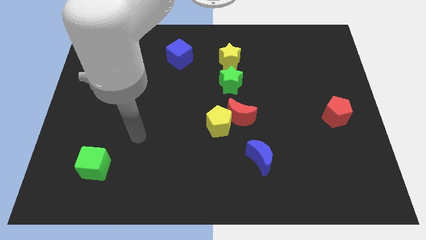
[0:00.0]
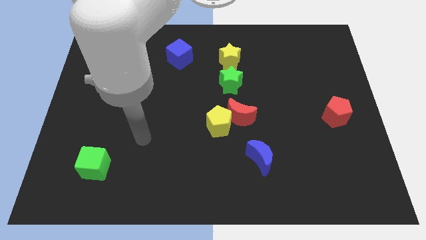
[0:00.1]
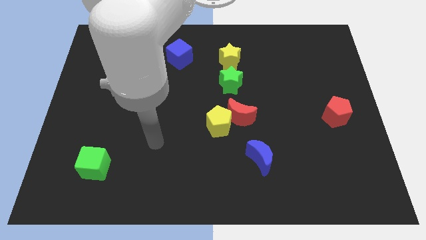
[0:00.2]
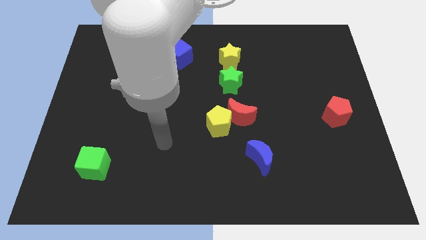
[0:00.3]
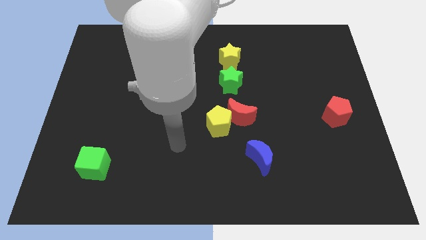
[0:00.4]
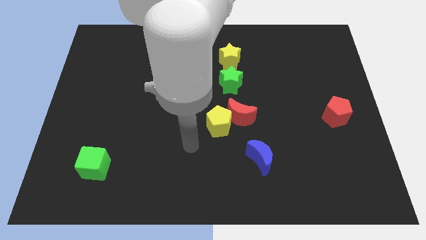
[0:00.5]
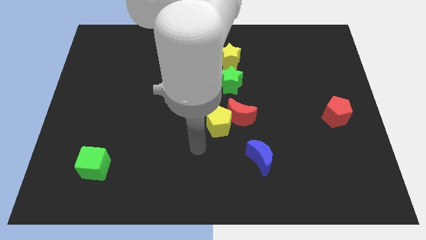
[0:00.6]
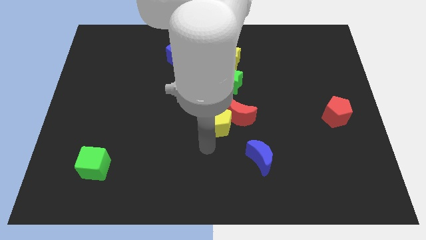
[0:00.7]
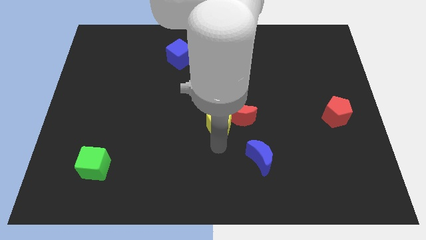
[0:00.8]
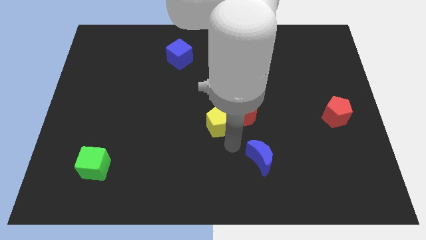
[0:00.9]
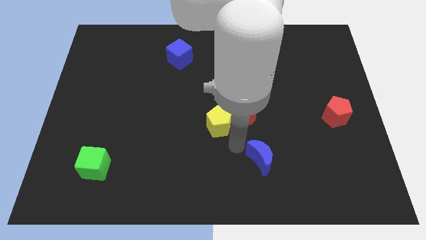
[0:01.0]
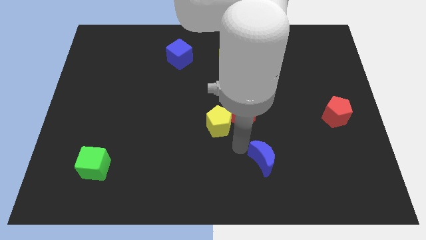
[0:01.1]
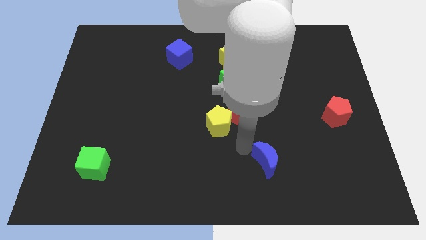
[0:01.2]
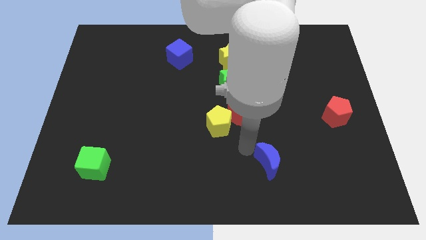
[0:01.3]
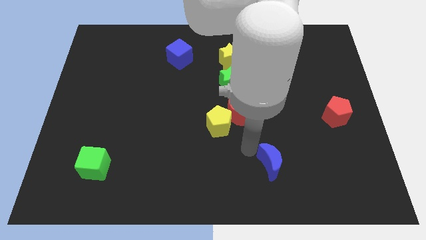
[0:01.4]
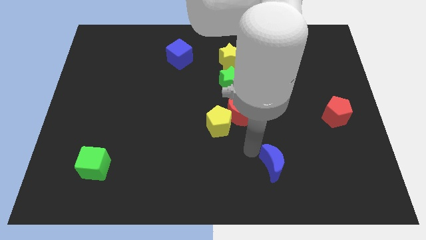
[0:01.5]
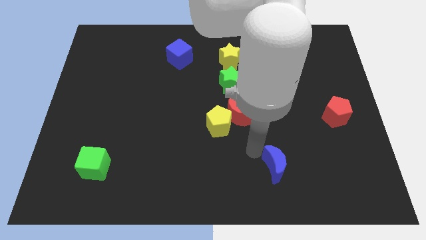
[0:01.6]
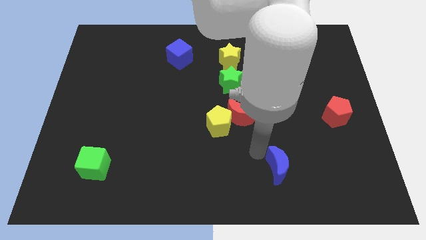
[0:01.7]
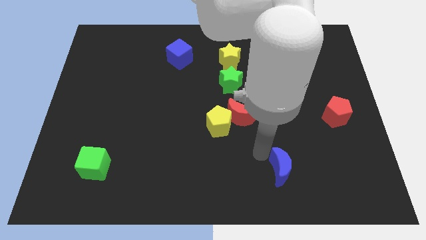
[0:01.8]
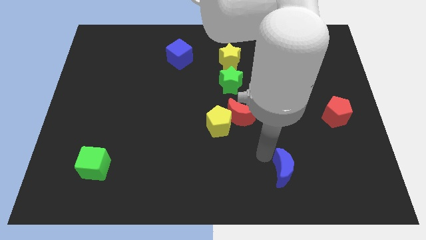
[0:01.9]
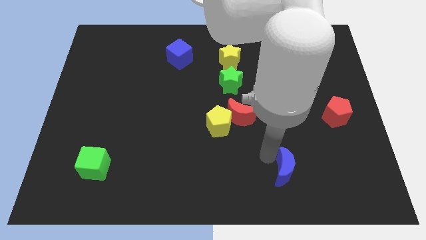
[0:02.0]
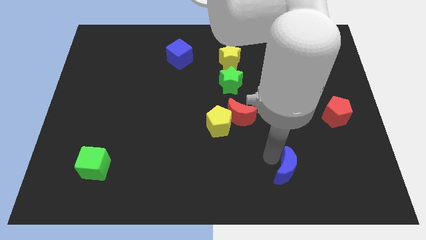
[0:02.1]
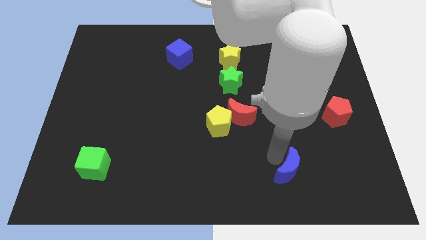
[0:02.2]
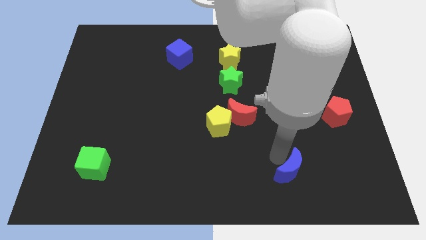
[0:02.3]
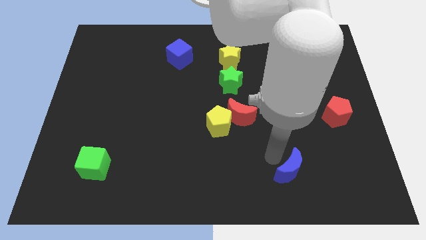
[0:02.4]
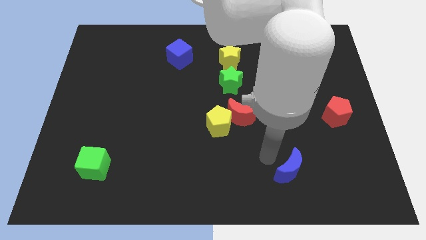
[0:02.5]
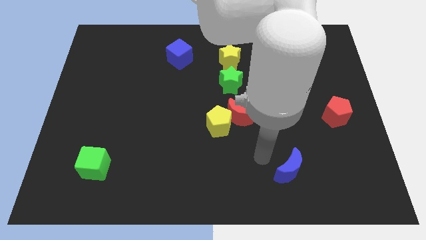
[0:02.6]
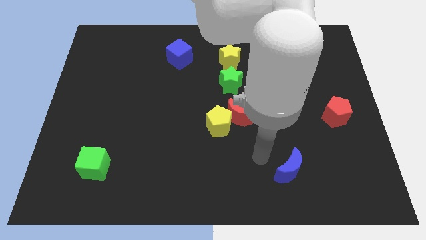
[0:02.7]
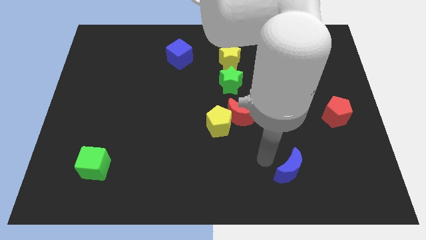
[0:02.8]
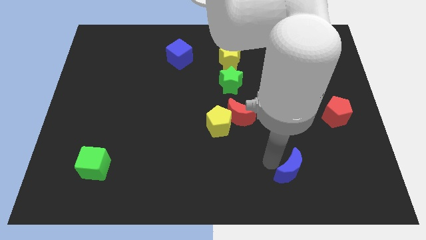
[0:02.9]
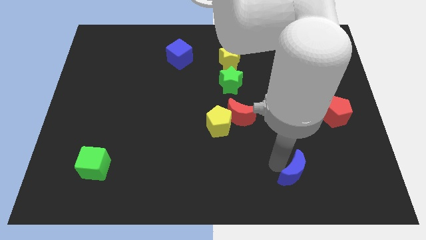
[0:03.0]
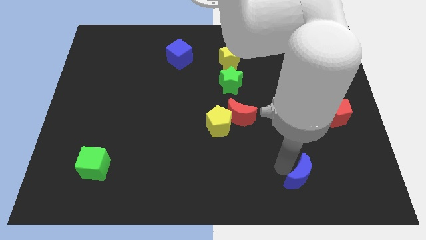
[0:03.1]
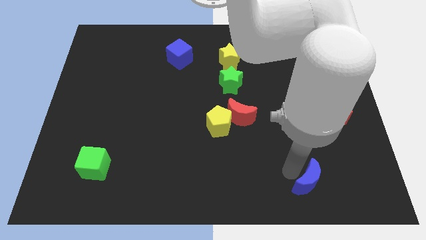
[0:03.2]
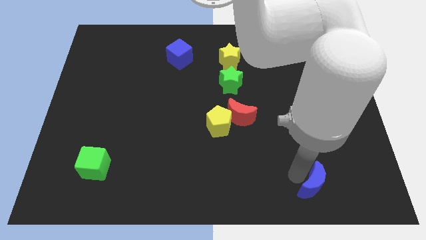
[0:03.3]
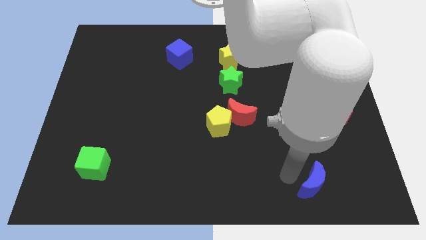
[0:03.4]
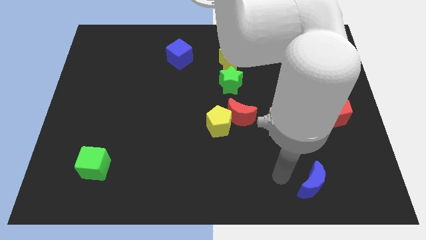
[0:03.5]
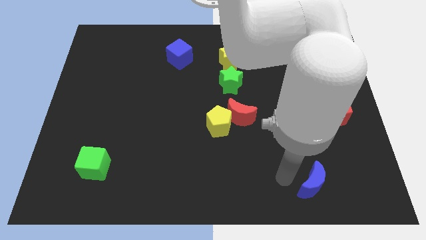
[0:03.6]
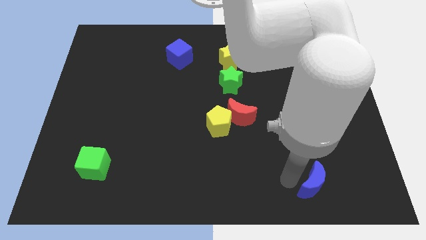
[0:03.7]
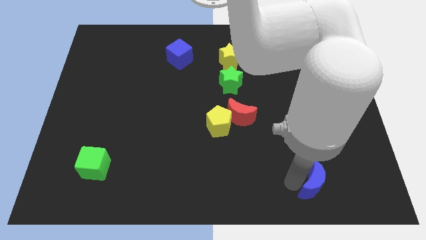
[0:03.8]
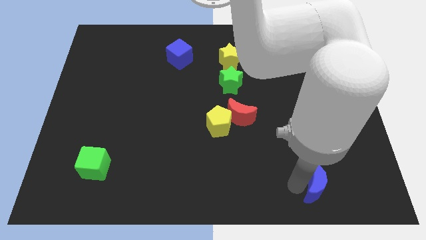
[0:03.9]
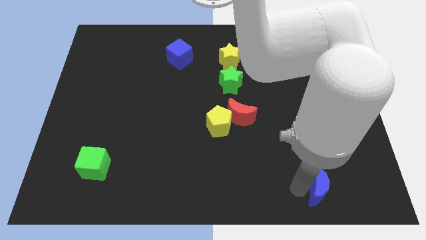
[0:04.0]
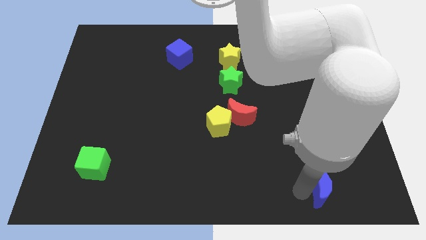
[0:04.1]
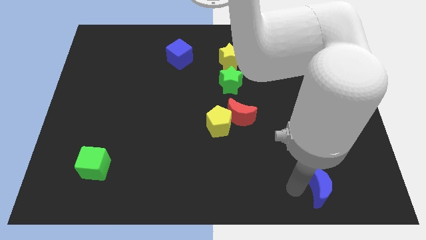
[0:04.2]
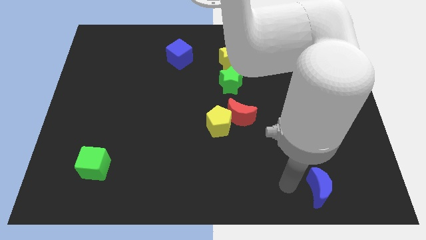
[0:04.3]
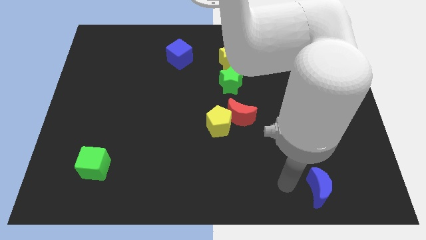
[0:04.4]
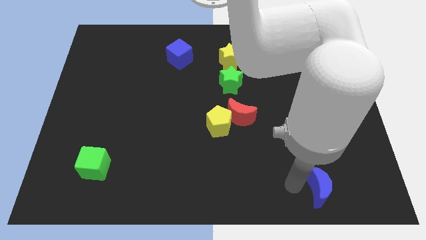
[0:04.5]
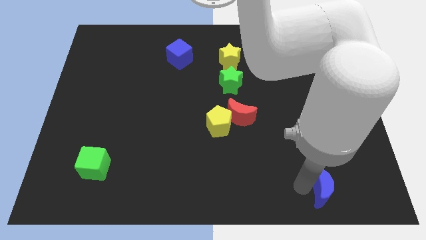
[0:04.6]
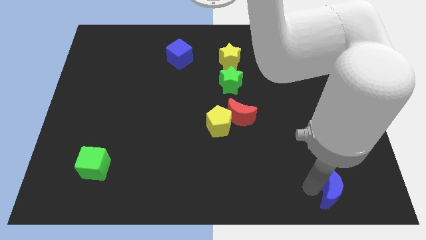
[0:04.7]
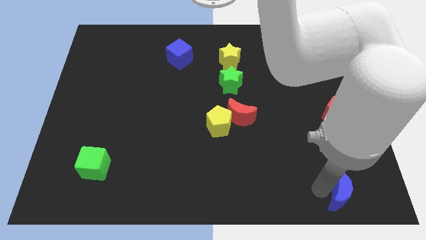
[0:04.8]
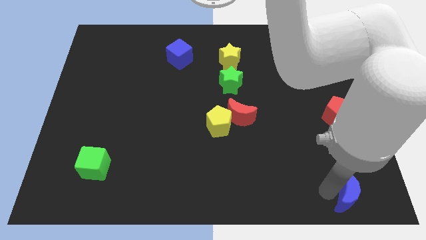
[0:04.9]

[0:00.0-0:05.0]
put the blue moon to the bottom right

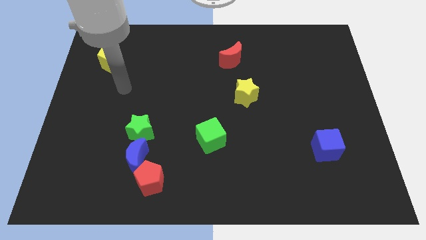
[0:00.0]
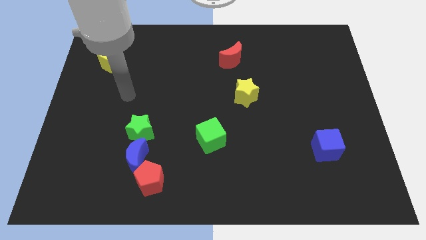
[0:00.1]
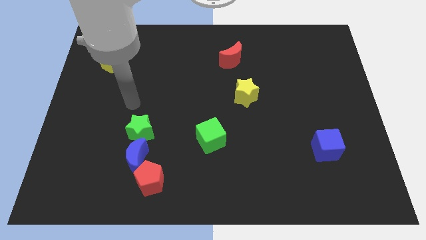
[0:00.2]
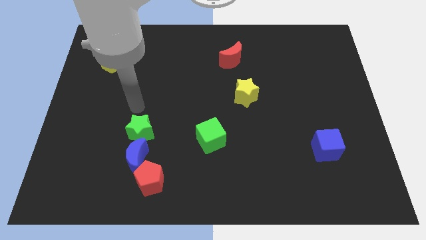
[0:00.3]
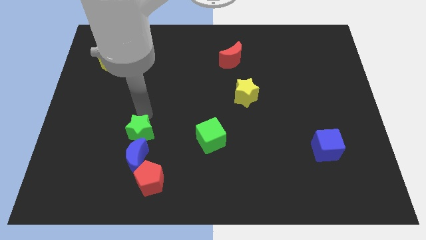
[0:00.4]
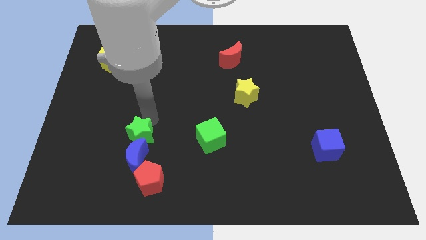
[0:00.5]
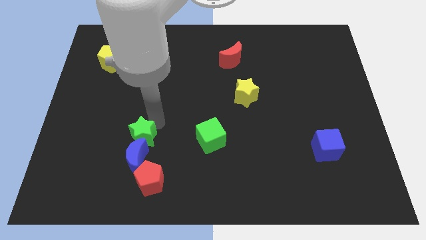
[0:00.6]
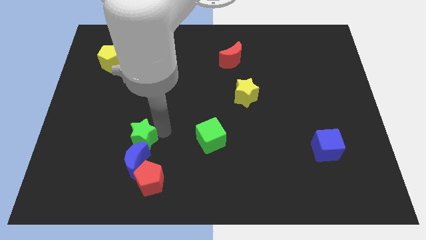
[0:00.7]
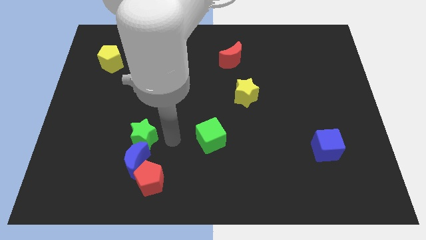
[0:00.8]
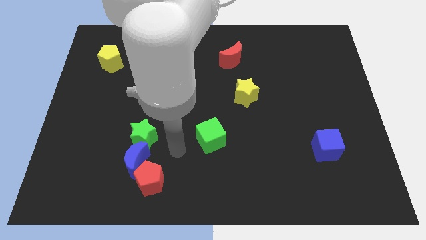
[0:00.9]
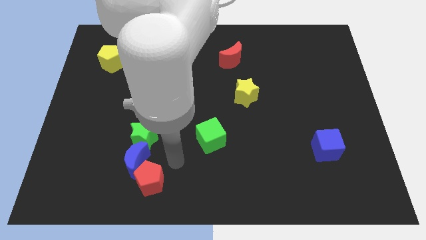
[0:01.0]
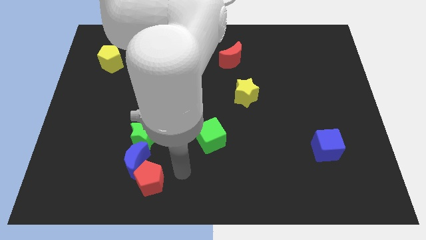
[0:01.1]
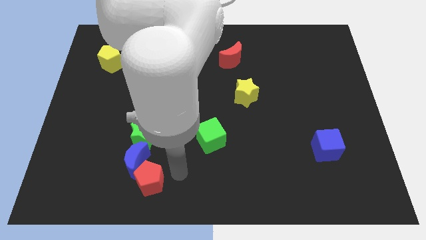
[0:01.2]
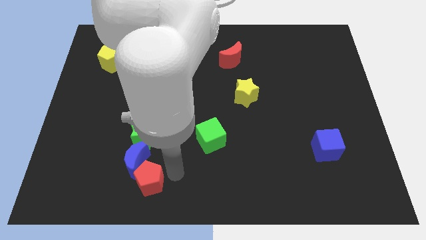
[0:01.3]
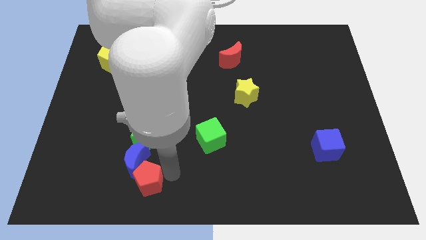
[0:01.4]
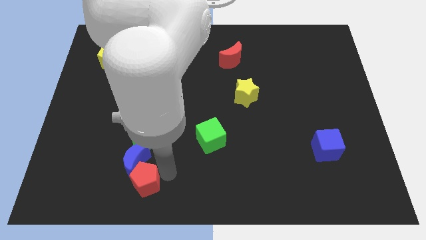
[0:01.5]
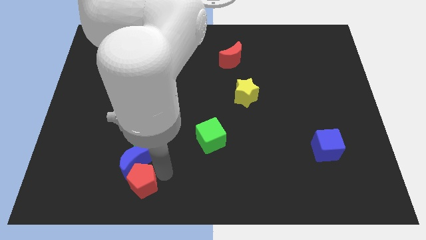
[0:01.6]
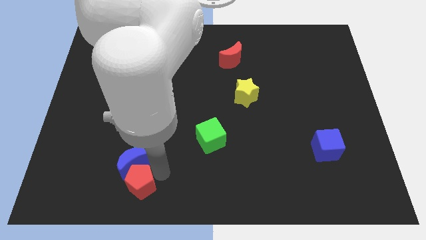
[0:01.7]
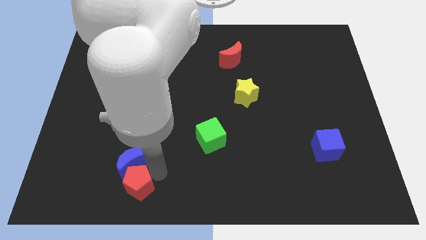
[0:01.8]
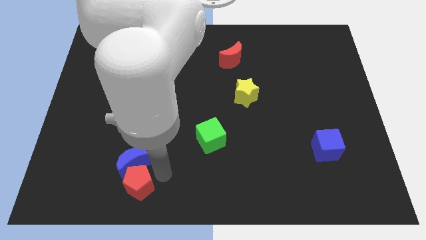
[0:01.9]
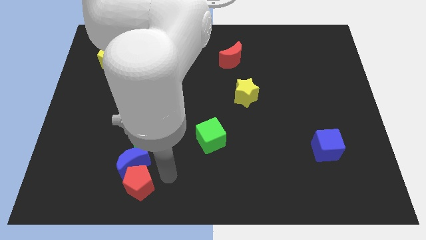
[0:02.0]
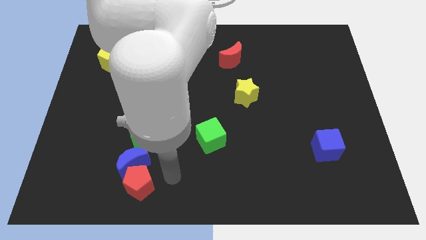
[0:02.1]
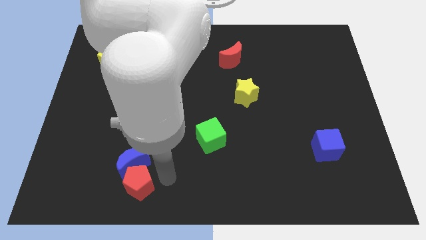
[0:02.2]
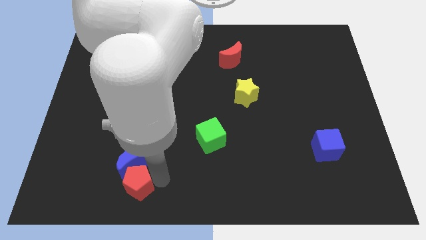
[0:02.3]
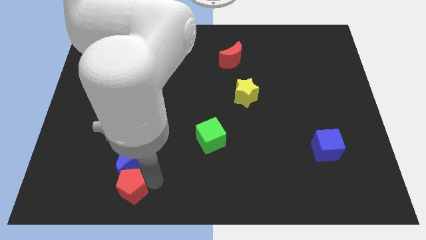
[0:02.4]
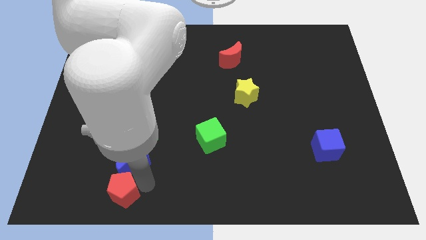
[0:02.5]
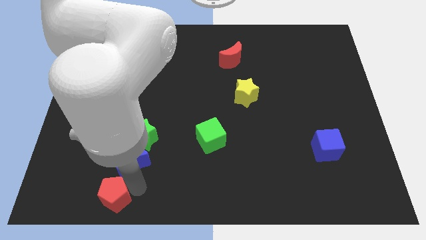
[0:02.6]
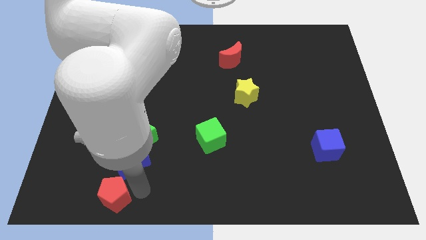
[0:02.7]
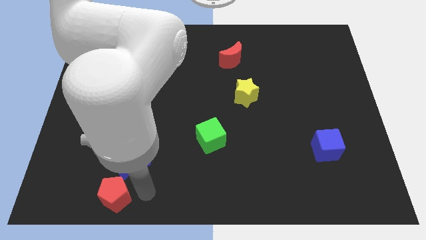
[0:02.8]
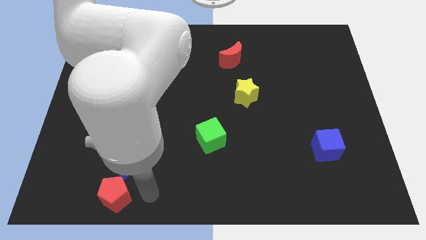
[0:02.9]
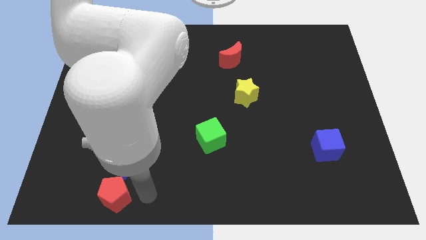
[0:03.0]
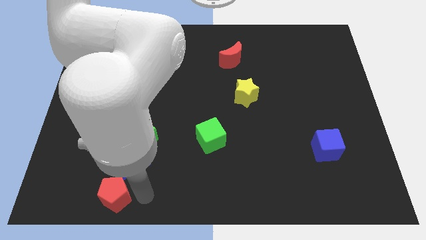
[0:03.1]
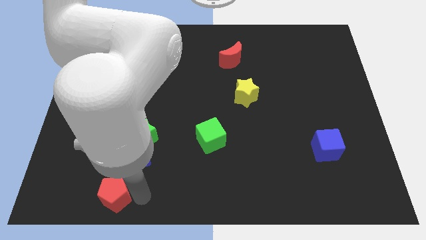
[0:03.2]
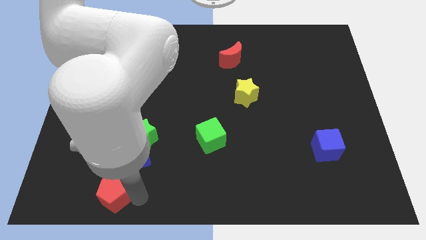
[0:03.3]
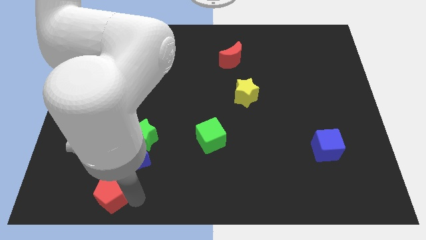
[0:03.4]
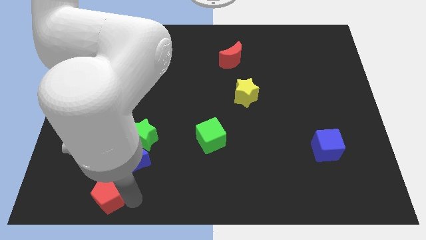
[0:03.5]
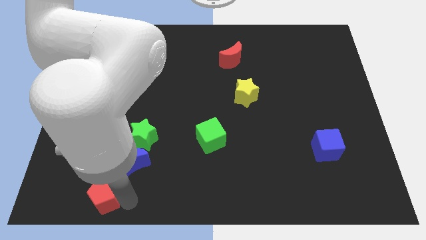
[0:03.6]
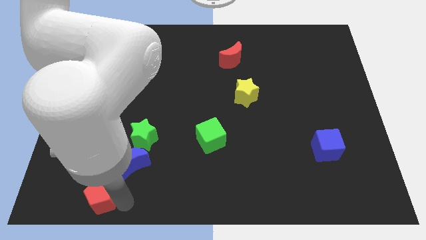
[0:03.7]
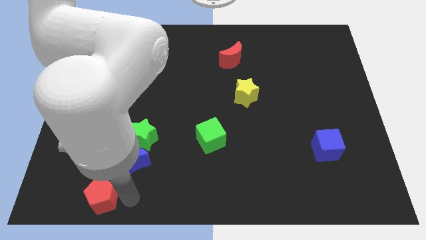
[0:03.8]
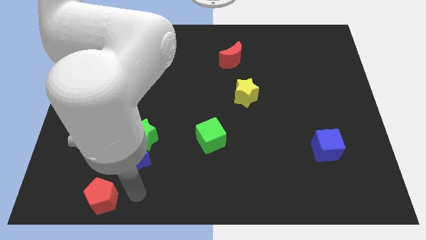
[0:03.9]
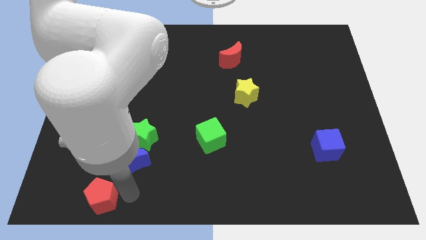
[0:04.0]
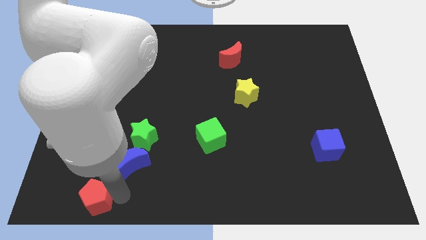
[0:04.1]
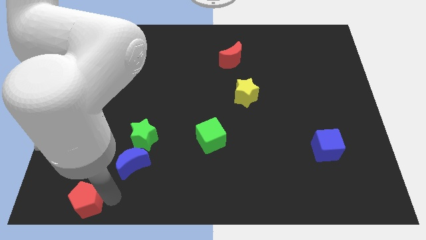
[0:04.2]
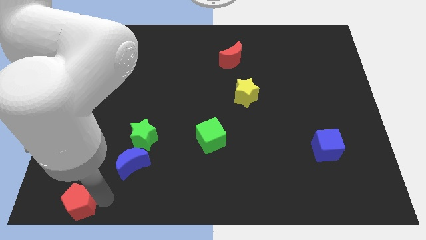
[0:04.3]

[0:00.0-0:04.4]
put the red pentagon to the bottom left corner
